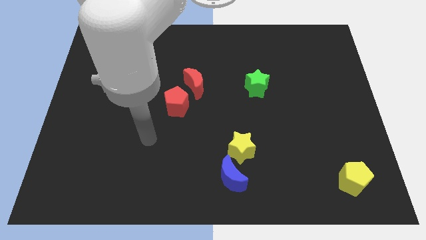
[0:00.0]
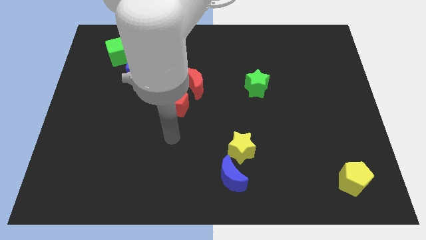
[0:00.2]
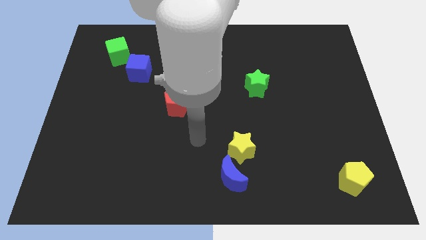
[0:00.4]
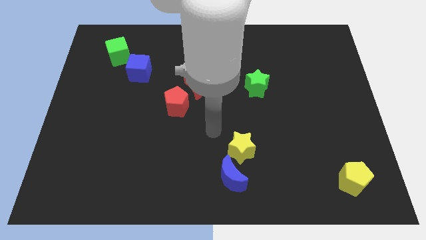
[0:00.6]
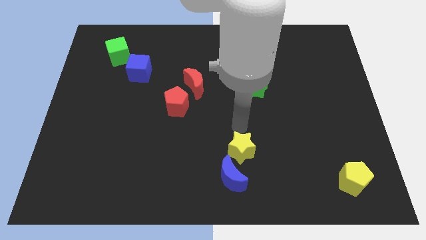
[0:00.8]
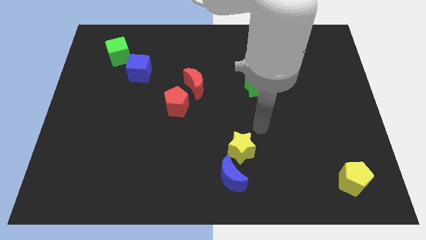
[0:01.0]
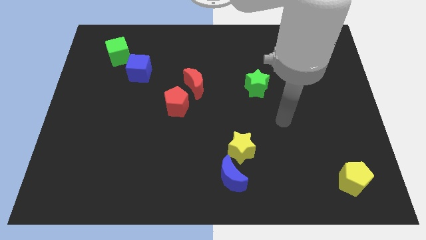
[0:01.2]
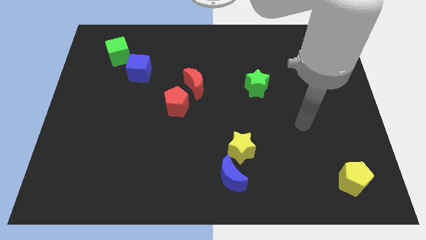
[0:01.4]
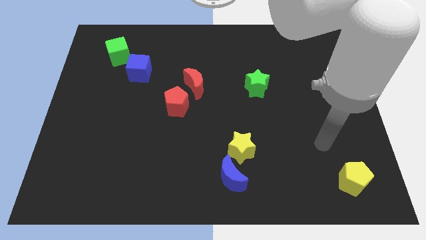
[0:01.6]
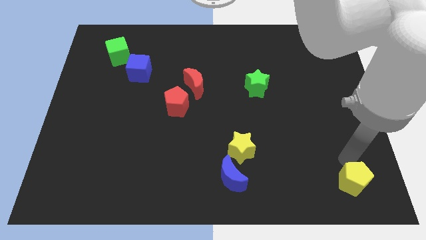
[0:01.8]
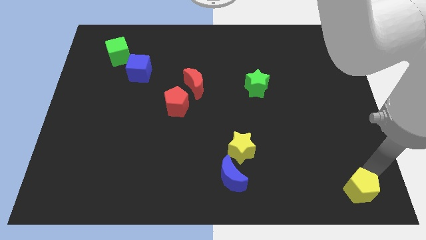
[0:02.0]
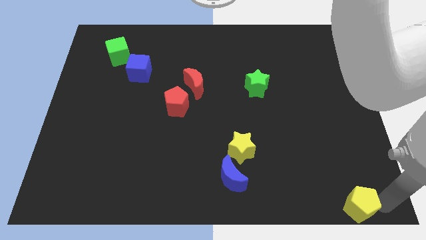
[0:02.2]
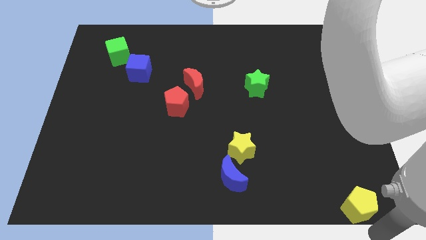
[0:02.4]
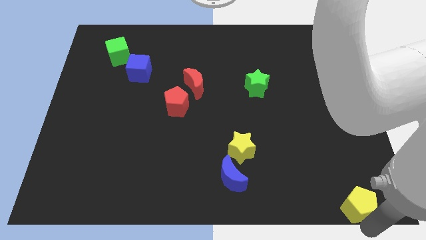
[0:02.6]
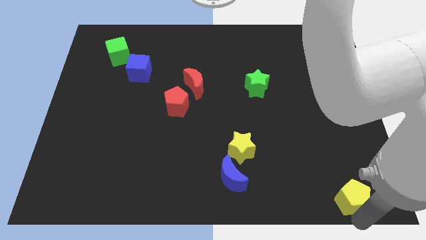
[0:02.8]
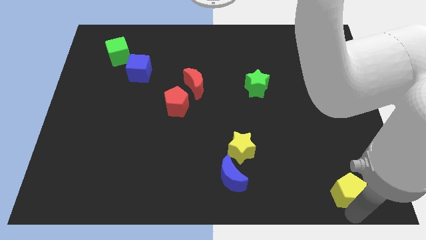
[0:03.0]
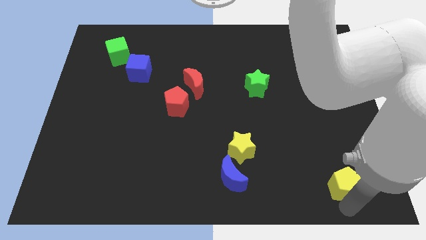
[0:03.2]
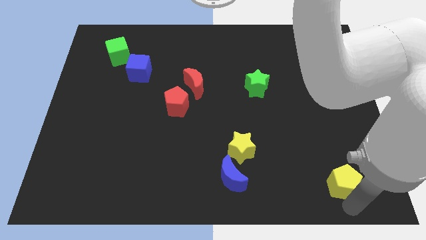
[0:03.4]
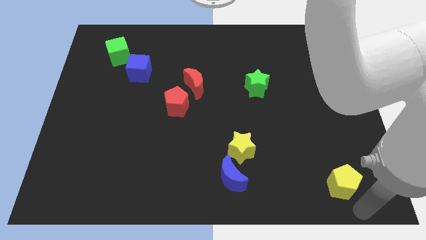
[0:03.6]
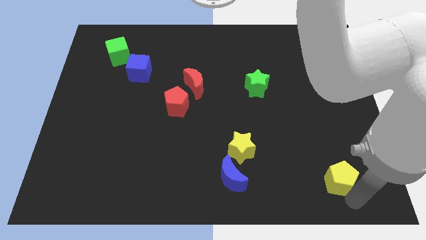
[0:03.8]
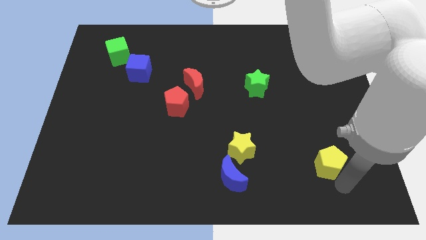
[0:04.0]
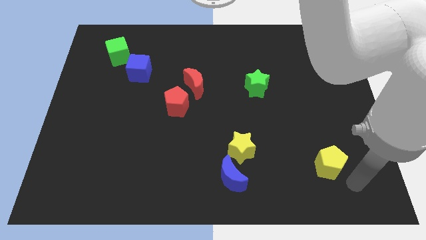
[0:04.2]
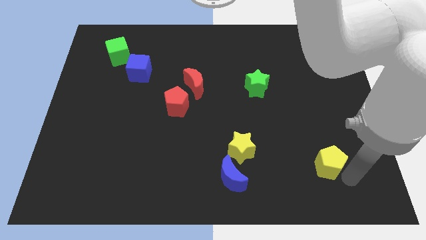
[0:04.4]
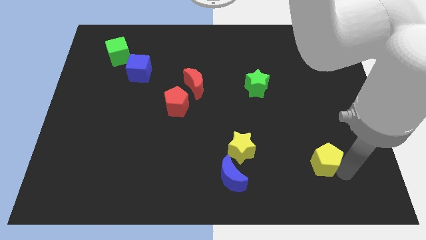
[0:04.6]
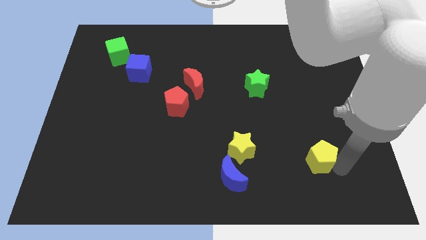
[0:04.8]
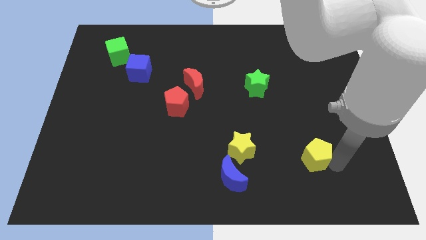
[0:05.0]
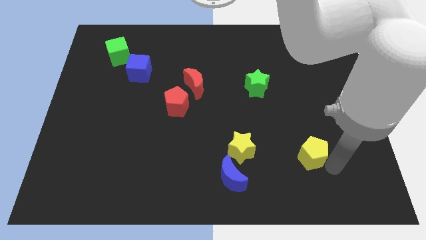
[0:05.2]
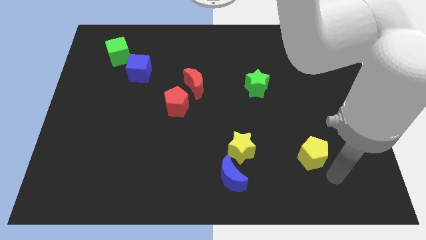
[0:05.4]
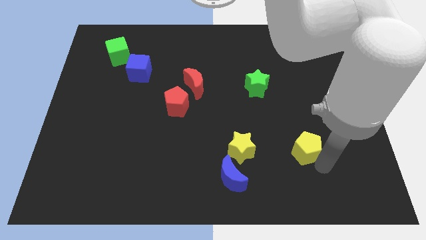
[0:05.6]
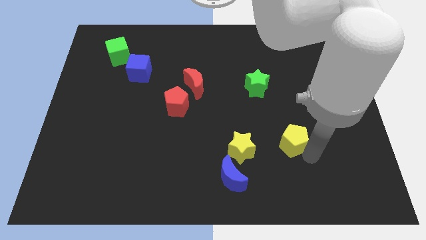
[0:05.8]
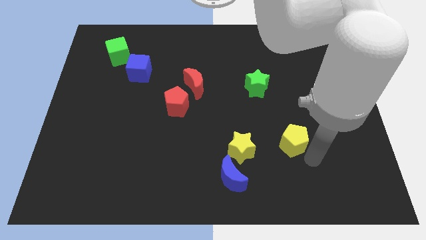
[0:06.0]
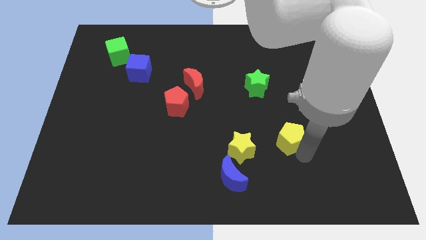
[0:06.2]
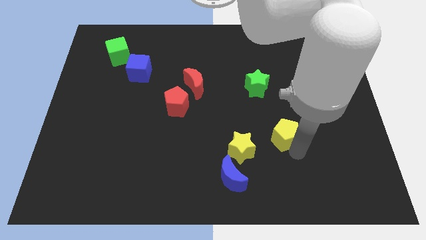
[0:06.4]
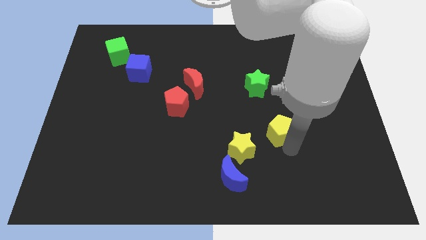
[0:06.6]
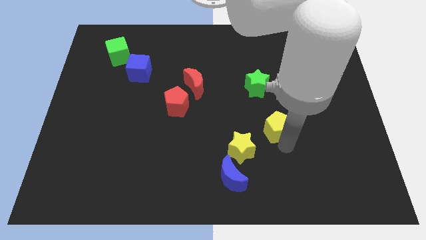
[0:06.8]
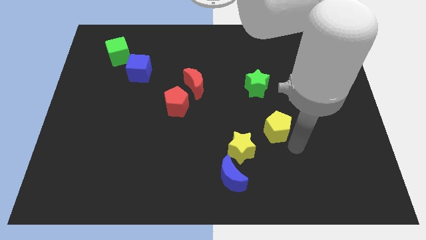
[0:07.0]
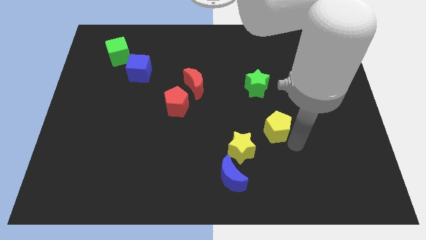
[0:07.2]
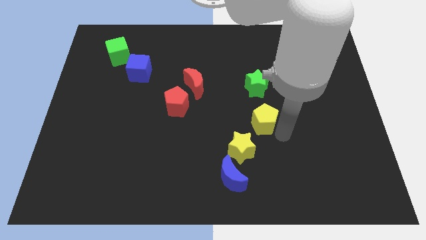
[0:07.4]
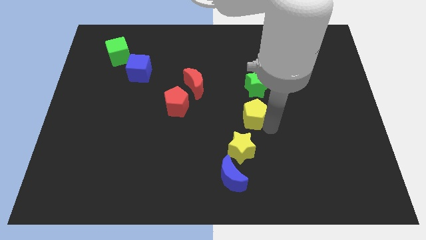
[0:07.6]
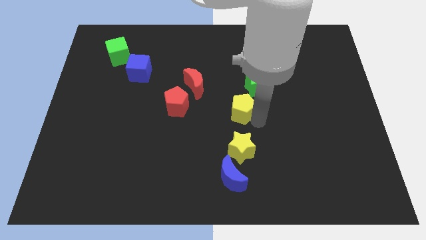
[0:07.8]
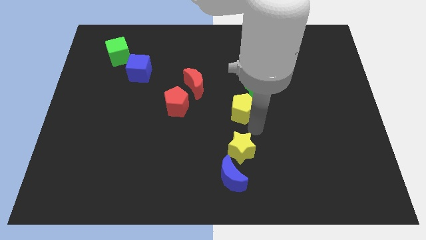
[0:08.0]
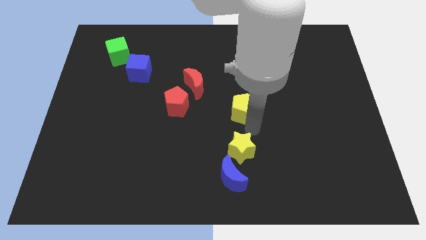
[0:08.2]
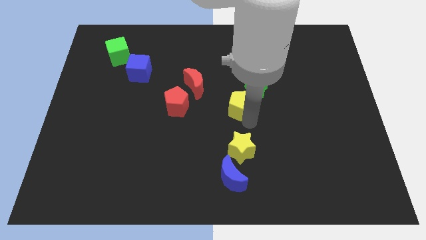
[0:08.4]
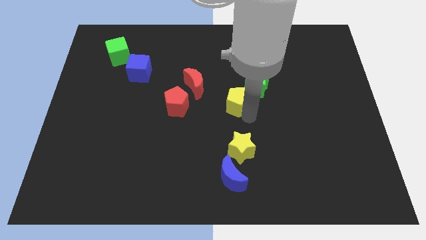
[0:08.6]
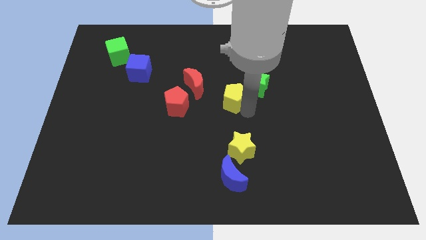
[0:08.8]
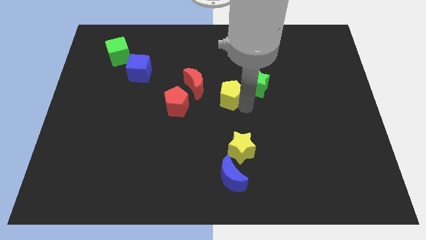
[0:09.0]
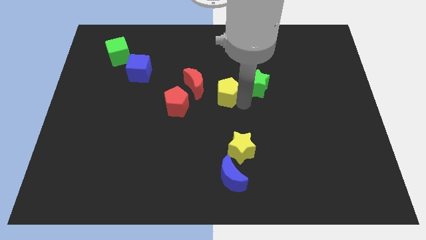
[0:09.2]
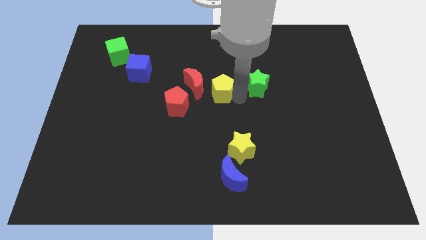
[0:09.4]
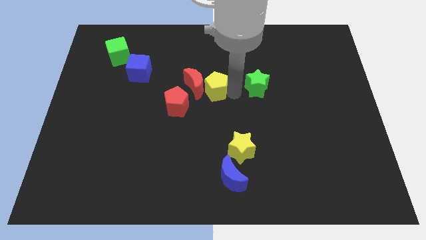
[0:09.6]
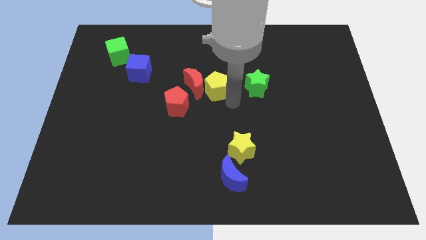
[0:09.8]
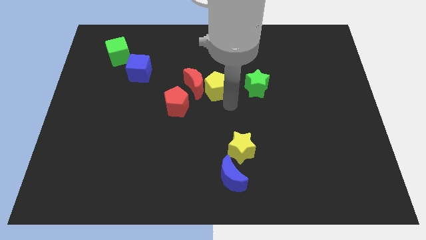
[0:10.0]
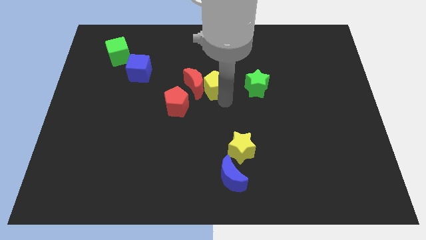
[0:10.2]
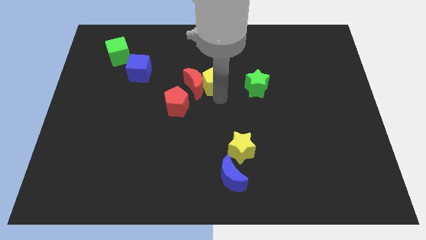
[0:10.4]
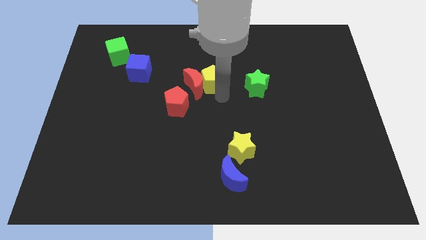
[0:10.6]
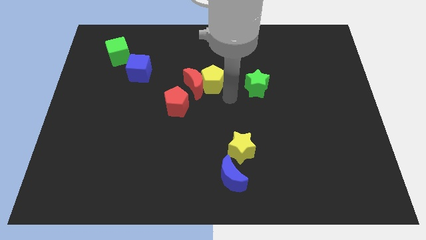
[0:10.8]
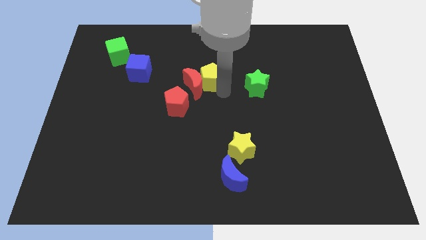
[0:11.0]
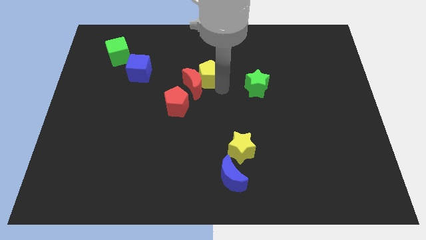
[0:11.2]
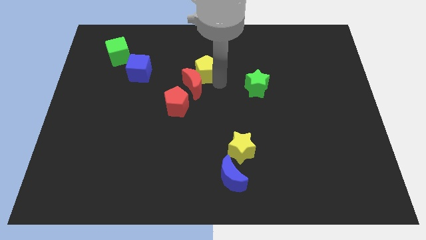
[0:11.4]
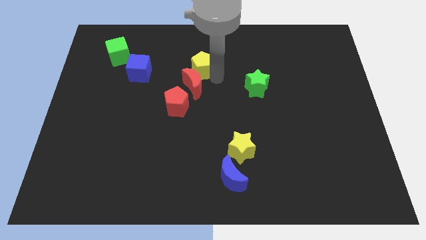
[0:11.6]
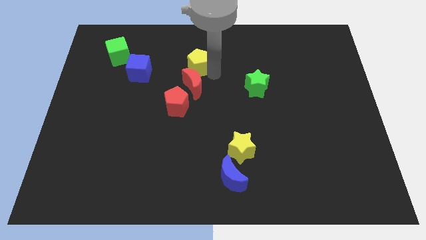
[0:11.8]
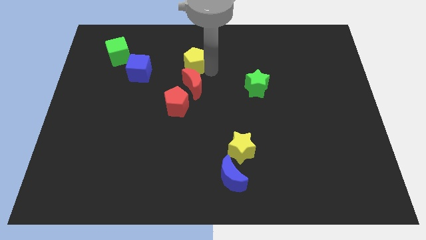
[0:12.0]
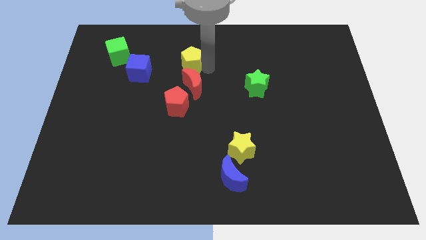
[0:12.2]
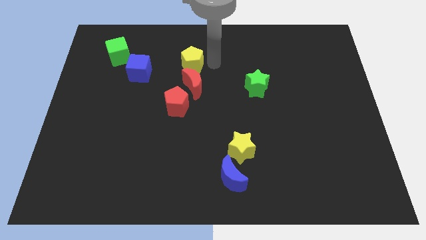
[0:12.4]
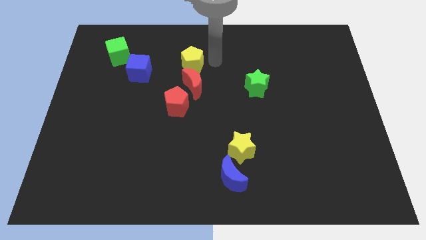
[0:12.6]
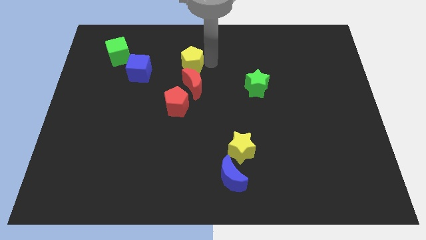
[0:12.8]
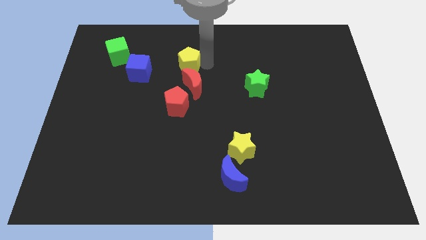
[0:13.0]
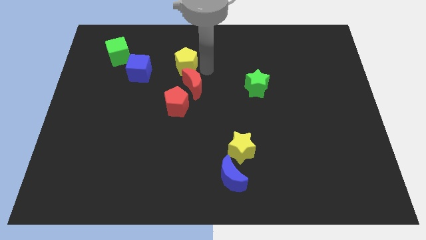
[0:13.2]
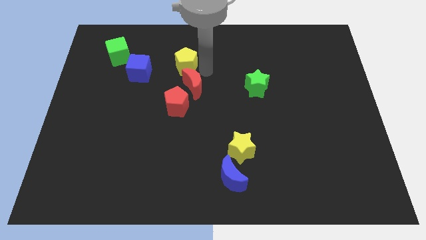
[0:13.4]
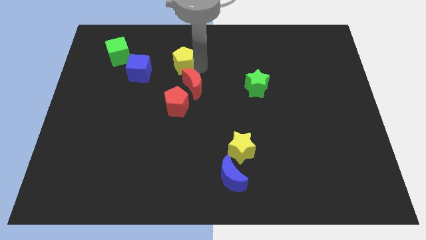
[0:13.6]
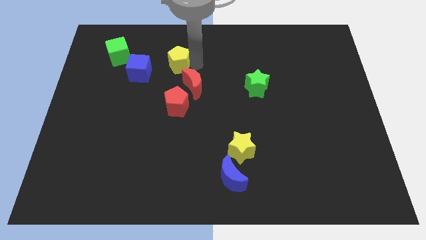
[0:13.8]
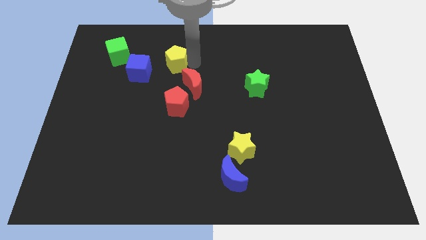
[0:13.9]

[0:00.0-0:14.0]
push the yellow pentagon just right of the green cube
